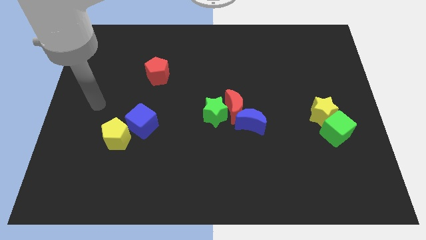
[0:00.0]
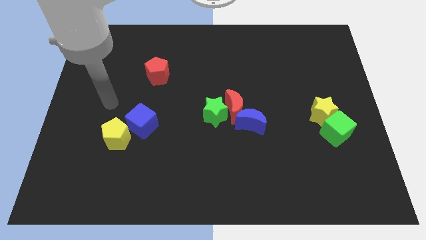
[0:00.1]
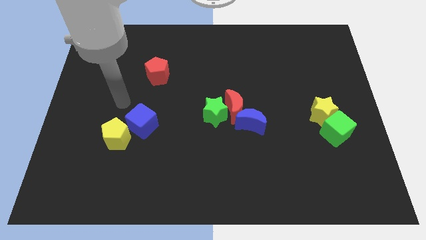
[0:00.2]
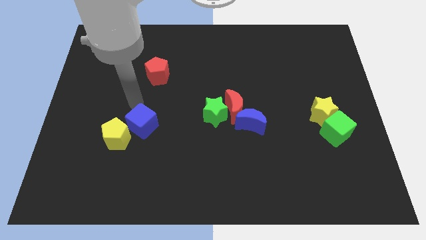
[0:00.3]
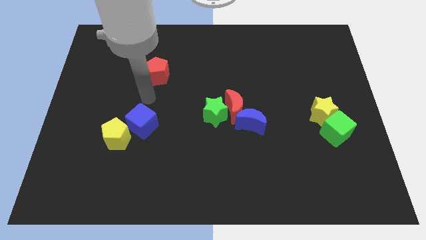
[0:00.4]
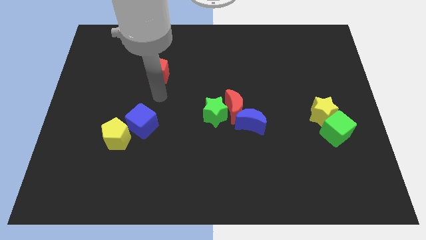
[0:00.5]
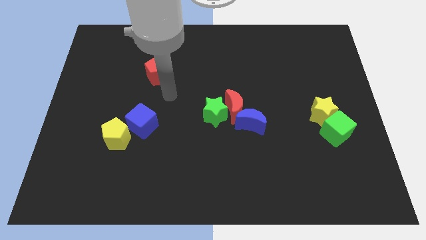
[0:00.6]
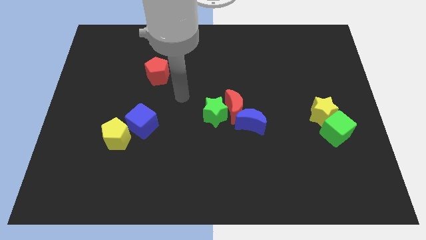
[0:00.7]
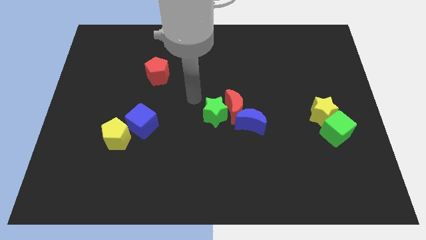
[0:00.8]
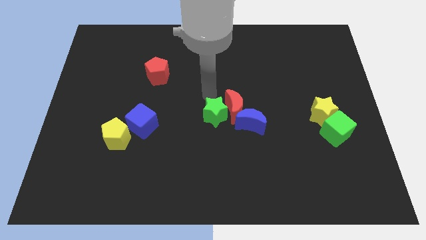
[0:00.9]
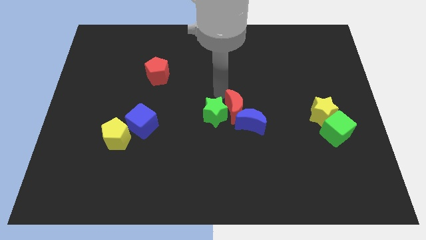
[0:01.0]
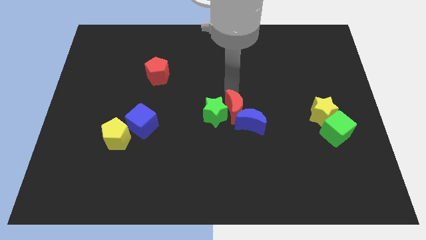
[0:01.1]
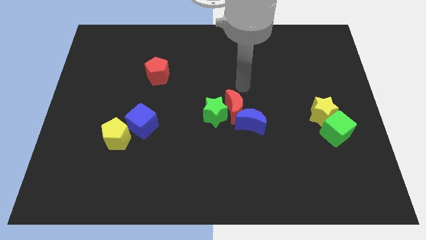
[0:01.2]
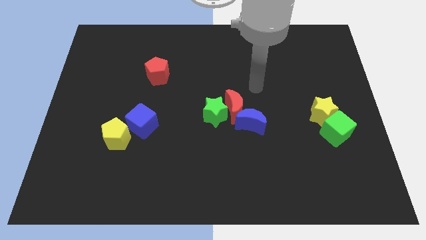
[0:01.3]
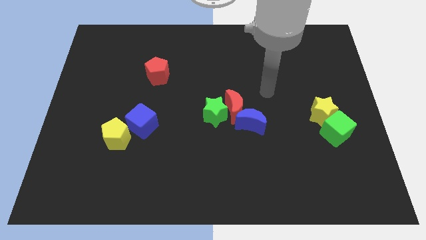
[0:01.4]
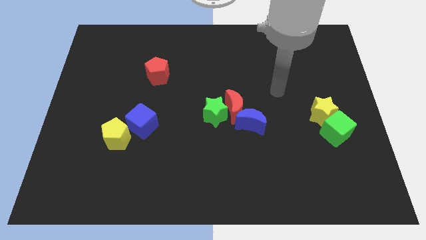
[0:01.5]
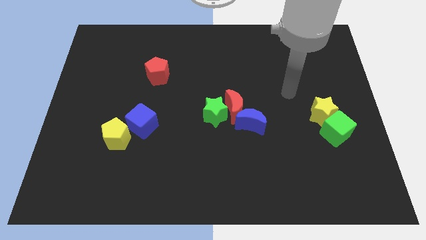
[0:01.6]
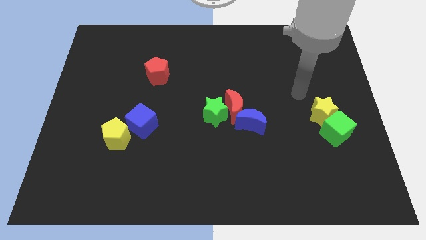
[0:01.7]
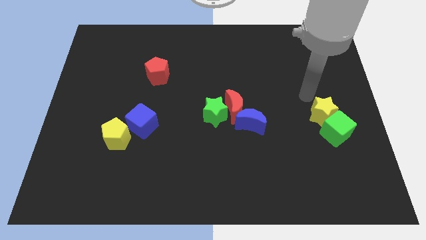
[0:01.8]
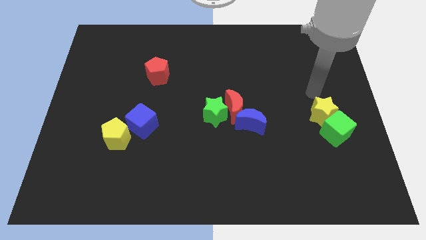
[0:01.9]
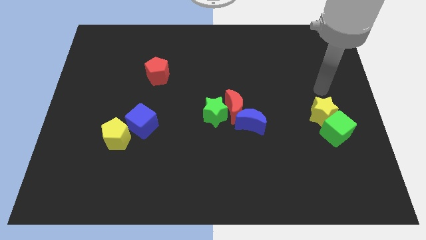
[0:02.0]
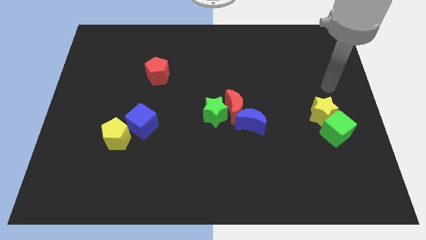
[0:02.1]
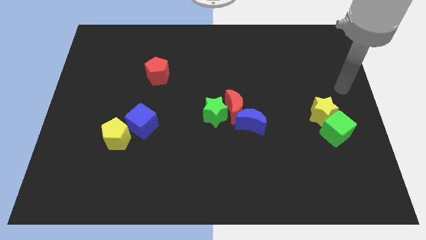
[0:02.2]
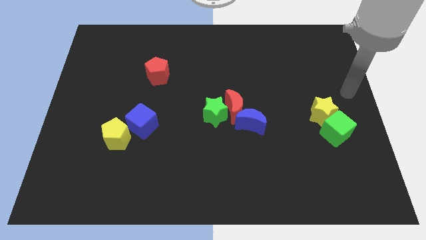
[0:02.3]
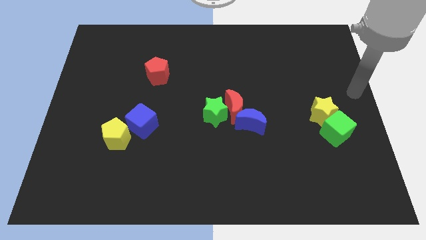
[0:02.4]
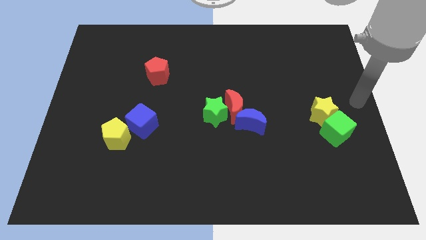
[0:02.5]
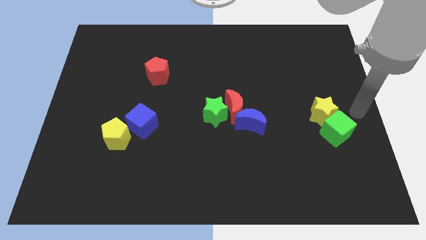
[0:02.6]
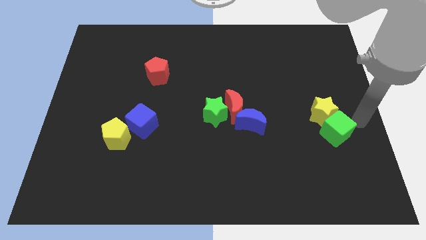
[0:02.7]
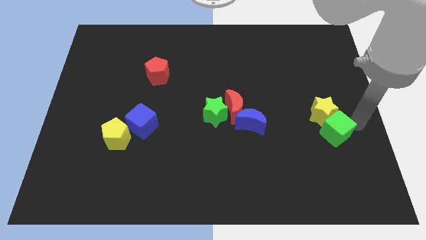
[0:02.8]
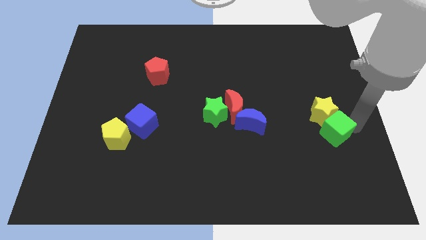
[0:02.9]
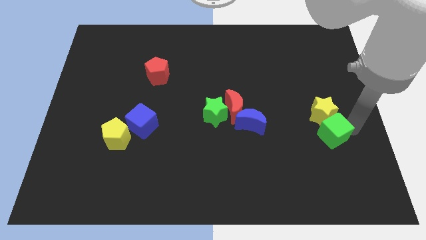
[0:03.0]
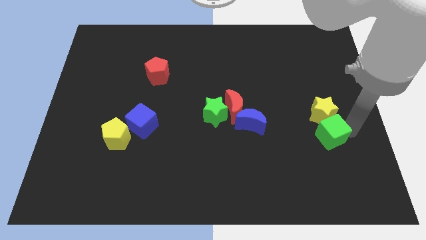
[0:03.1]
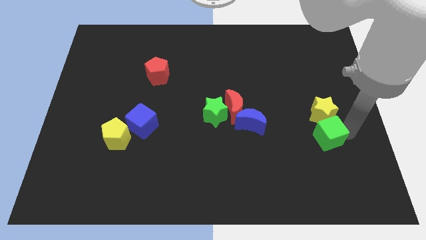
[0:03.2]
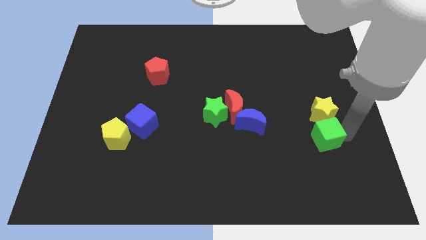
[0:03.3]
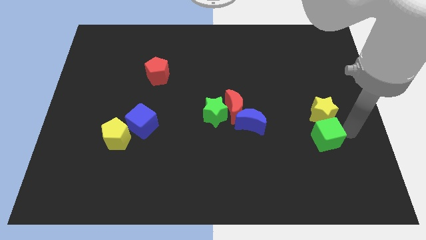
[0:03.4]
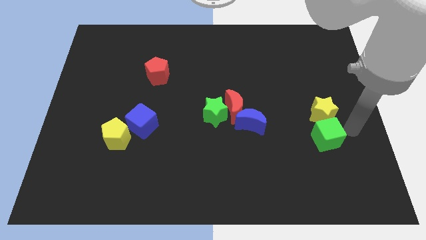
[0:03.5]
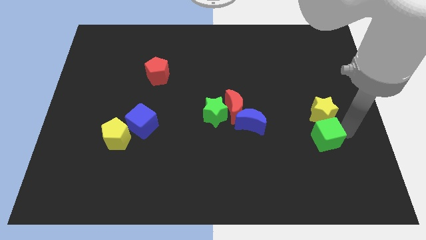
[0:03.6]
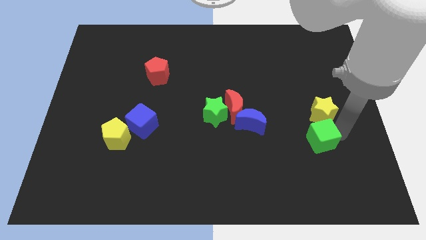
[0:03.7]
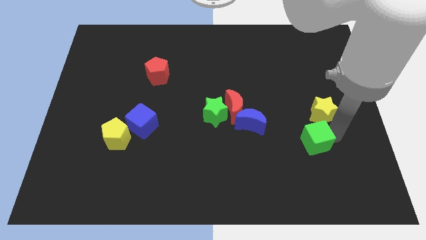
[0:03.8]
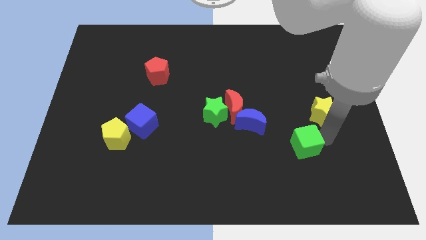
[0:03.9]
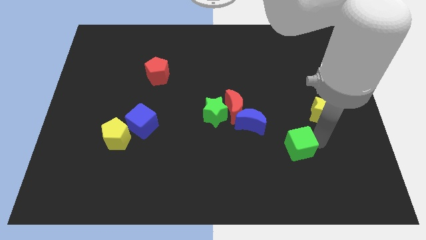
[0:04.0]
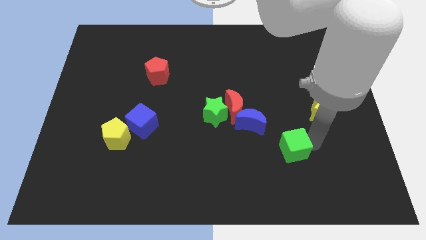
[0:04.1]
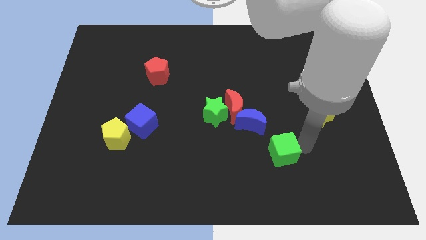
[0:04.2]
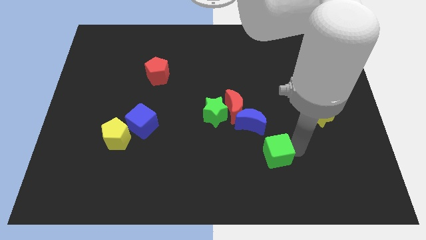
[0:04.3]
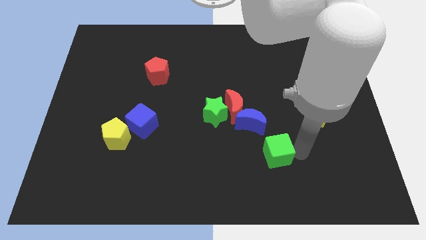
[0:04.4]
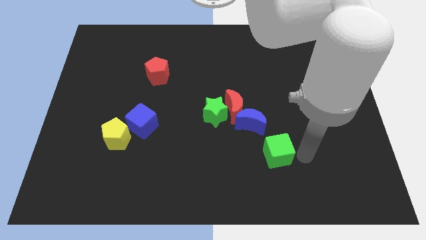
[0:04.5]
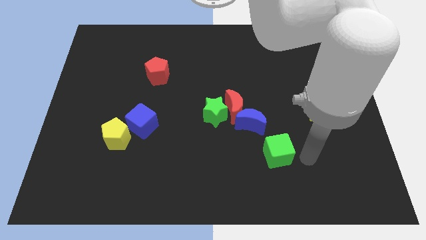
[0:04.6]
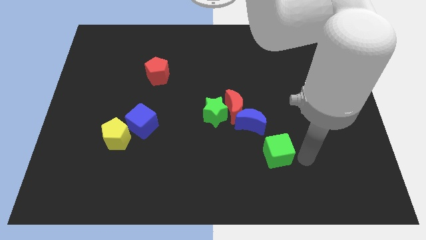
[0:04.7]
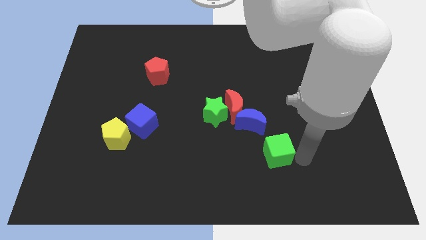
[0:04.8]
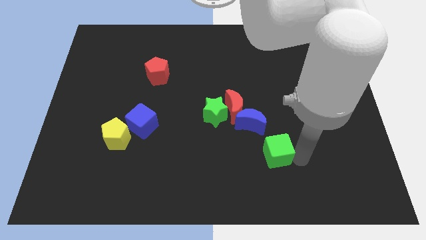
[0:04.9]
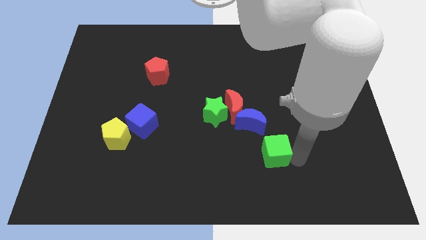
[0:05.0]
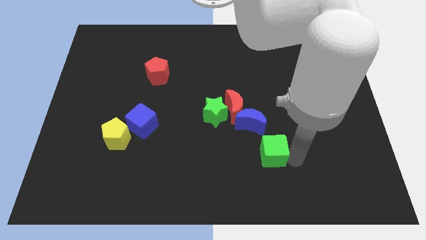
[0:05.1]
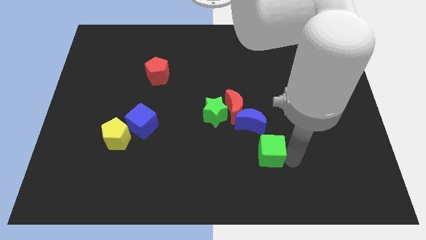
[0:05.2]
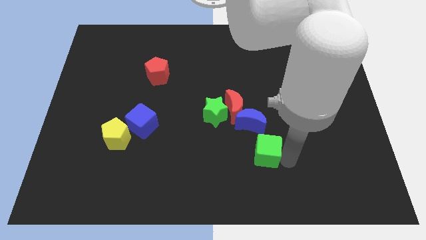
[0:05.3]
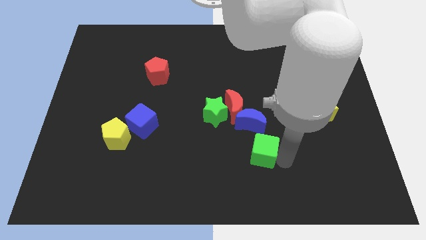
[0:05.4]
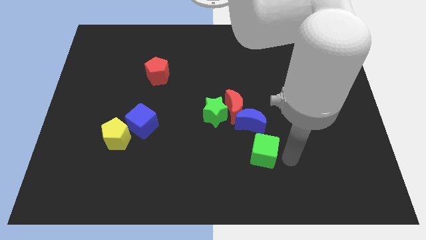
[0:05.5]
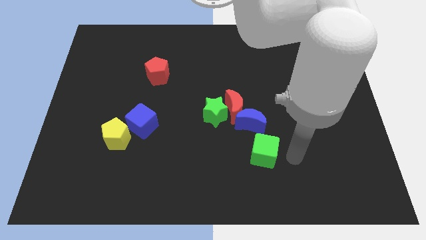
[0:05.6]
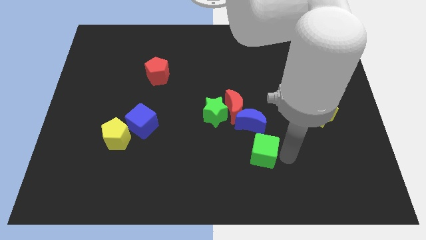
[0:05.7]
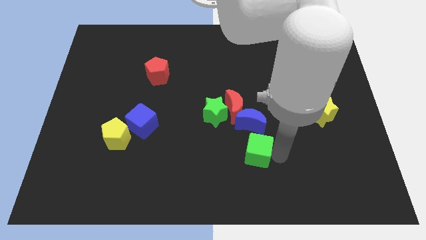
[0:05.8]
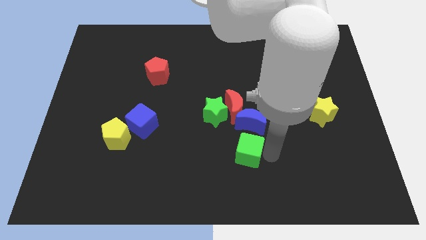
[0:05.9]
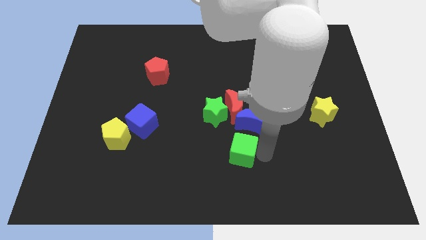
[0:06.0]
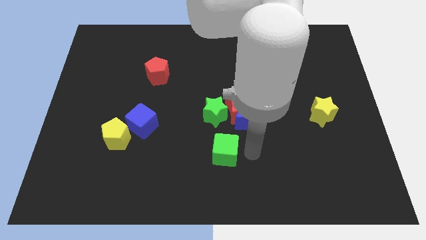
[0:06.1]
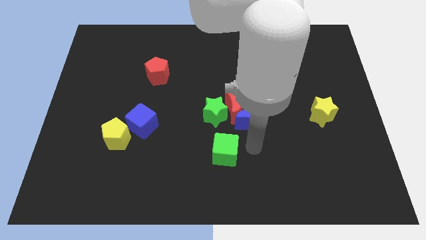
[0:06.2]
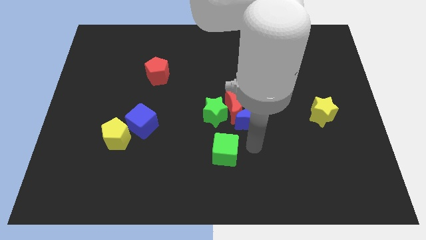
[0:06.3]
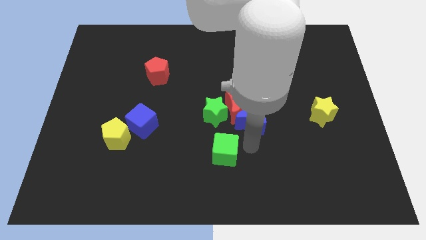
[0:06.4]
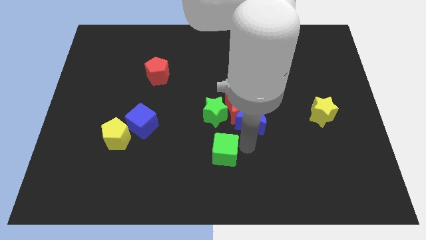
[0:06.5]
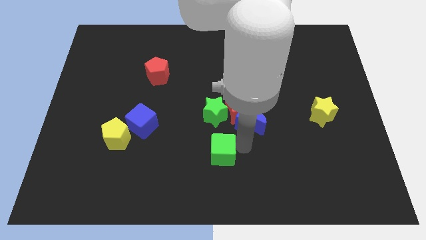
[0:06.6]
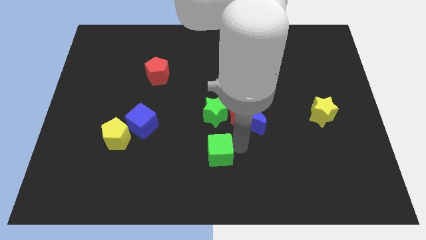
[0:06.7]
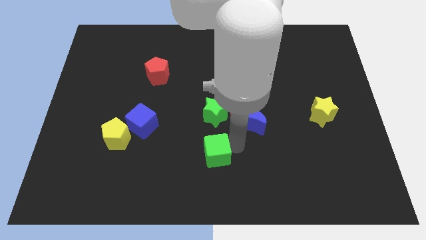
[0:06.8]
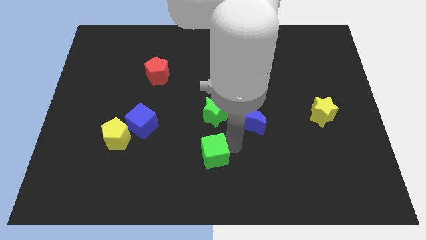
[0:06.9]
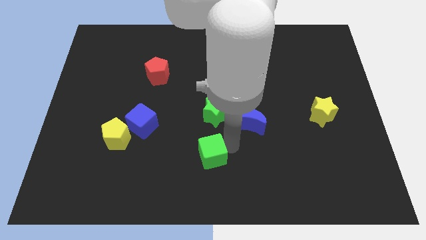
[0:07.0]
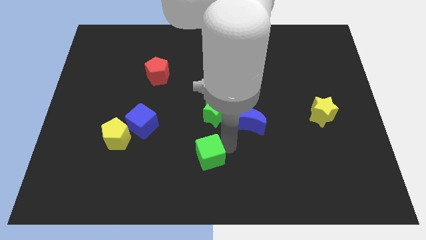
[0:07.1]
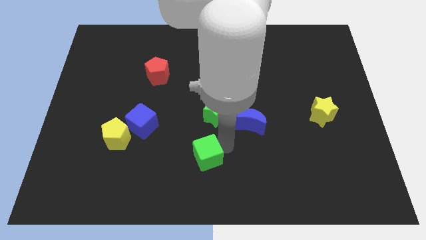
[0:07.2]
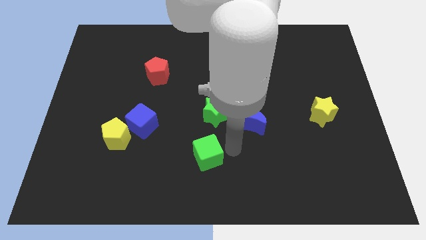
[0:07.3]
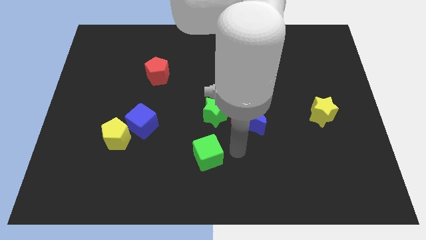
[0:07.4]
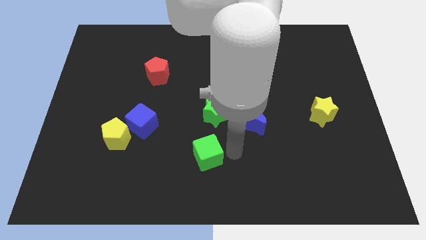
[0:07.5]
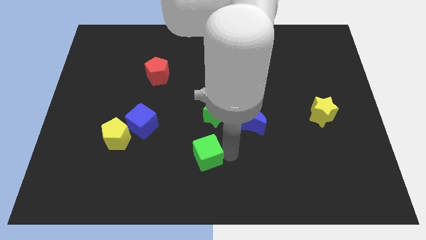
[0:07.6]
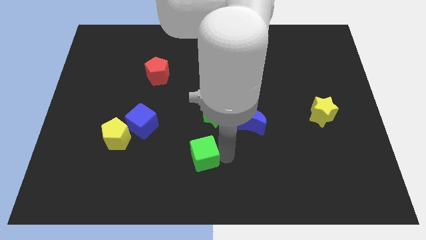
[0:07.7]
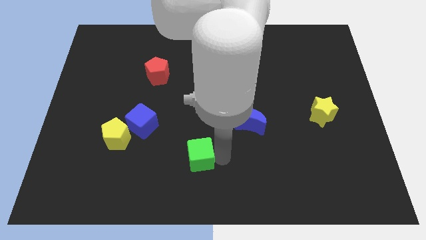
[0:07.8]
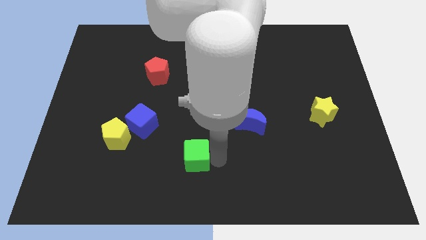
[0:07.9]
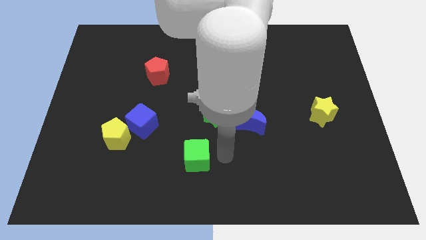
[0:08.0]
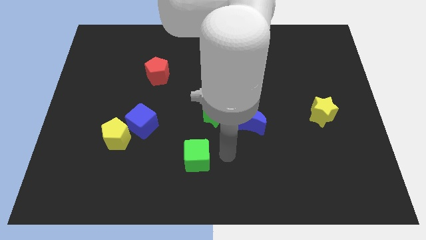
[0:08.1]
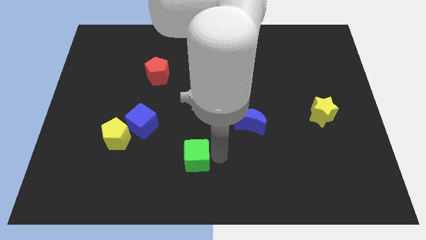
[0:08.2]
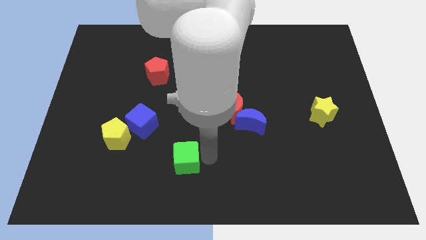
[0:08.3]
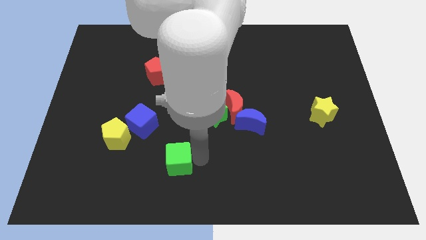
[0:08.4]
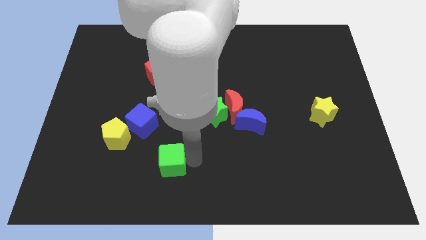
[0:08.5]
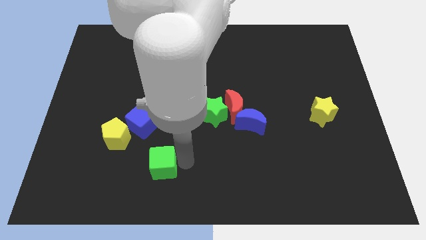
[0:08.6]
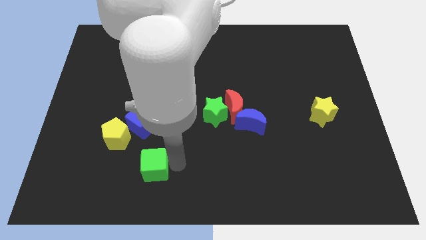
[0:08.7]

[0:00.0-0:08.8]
move the green cube to the bottom of the blue cube
